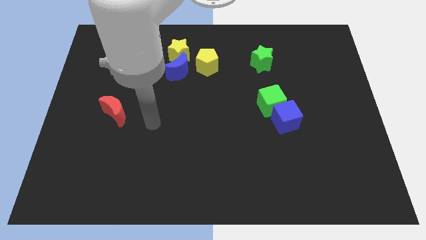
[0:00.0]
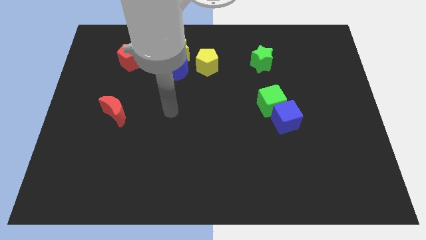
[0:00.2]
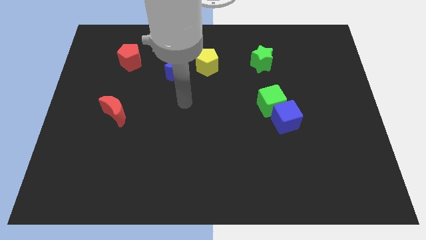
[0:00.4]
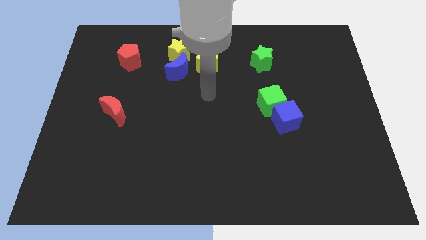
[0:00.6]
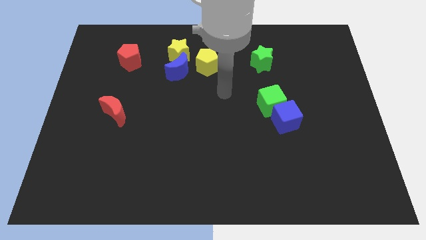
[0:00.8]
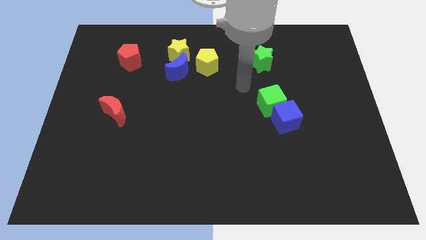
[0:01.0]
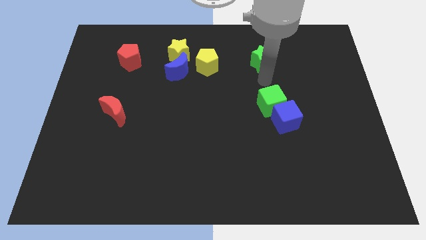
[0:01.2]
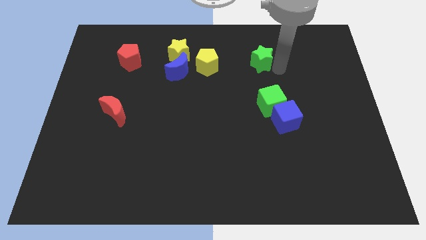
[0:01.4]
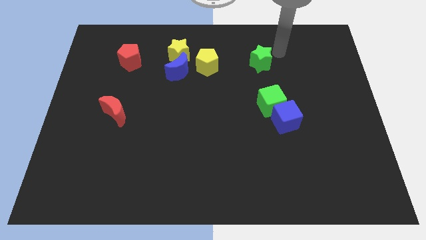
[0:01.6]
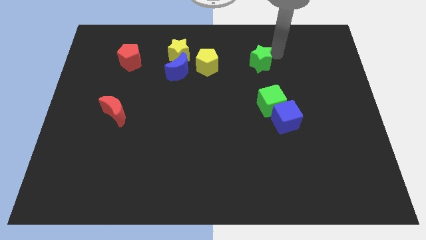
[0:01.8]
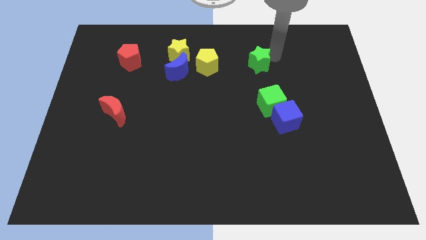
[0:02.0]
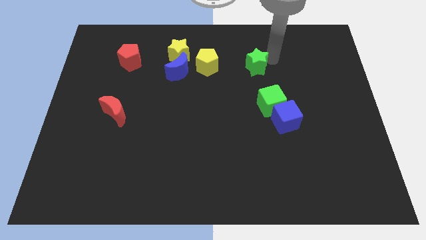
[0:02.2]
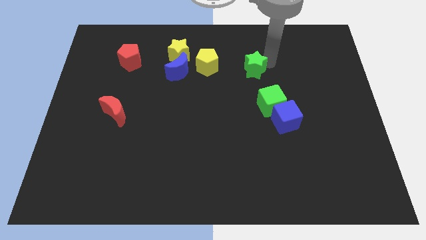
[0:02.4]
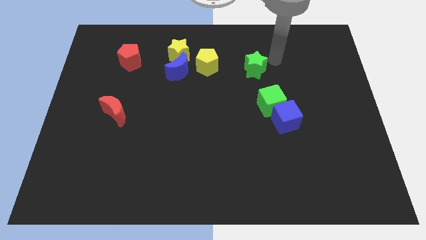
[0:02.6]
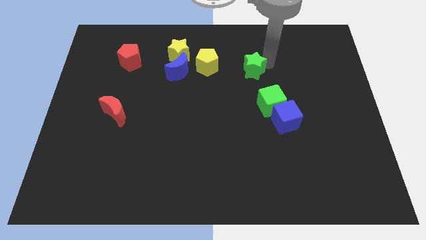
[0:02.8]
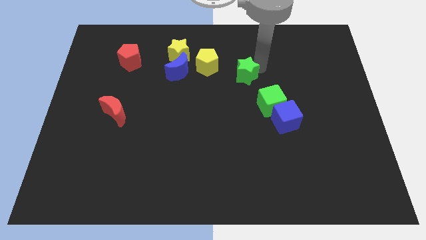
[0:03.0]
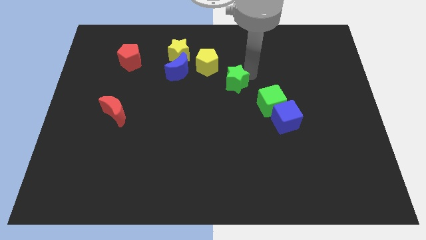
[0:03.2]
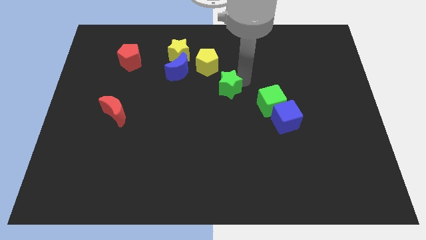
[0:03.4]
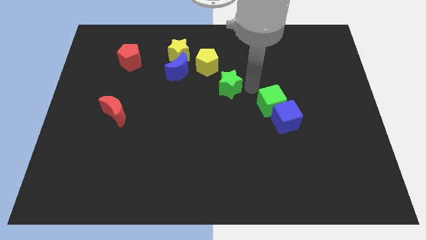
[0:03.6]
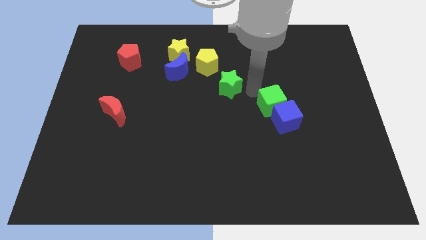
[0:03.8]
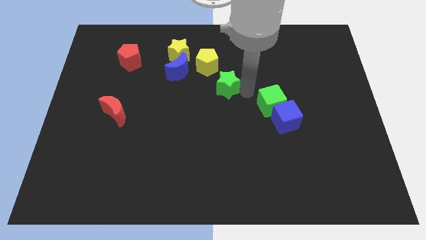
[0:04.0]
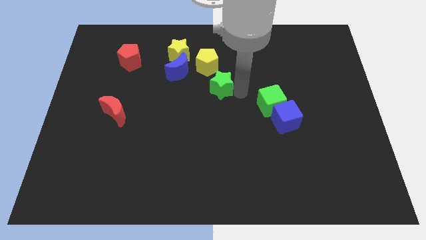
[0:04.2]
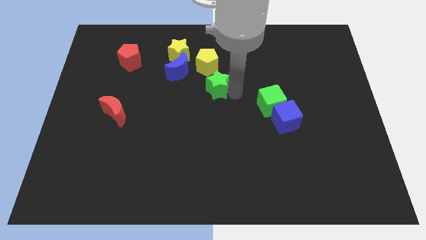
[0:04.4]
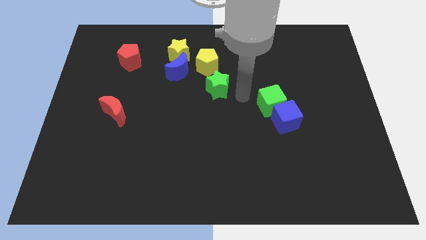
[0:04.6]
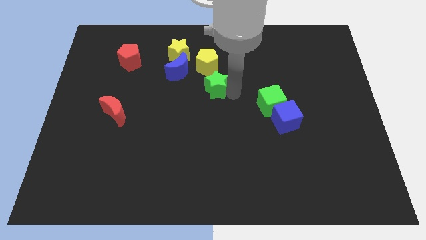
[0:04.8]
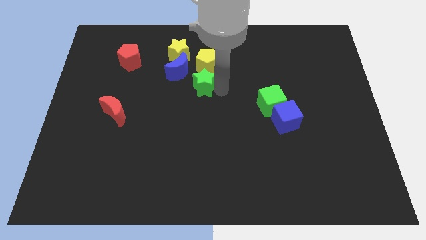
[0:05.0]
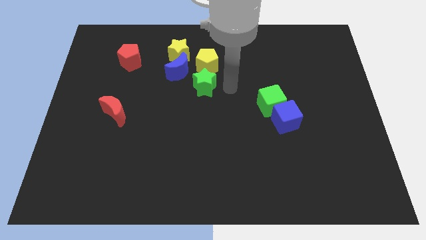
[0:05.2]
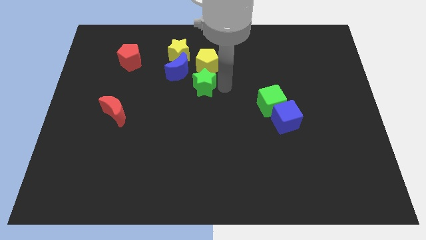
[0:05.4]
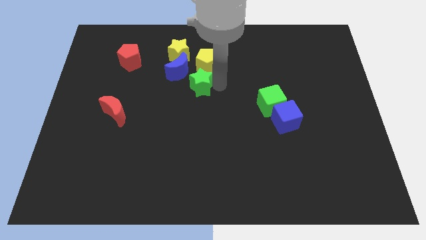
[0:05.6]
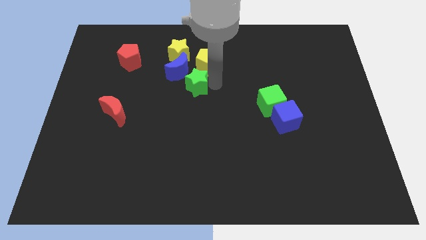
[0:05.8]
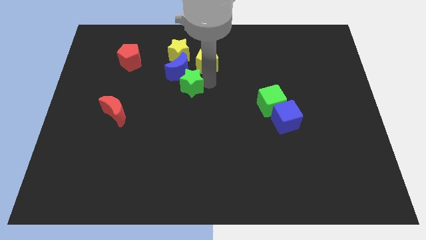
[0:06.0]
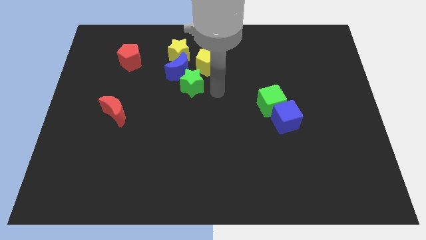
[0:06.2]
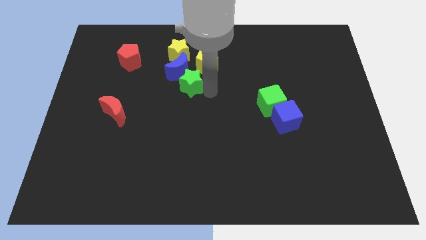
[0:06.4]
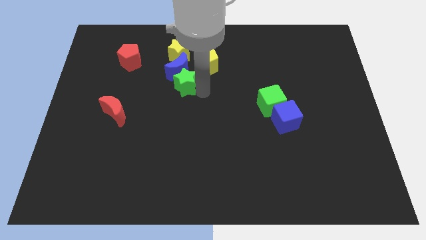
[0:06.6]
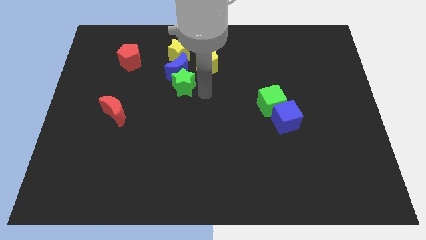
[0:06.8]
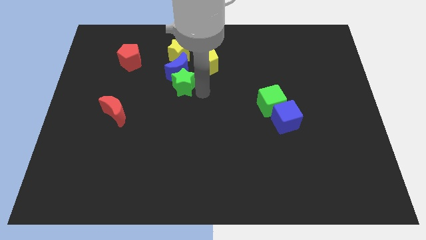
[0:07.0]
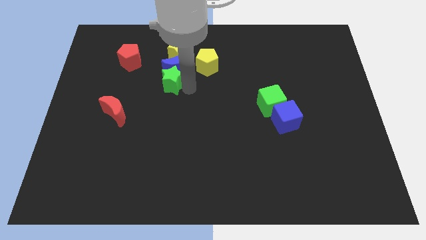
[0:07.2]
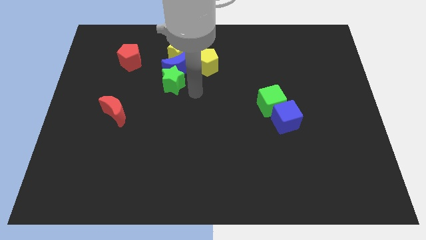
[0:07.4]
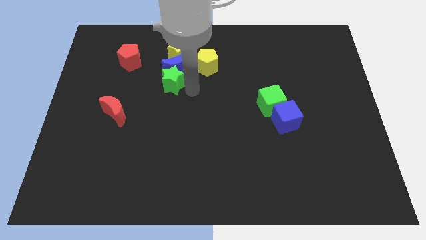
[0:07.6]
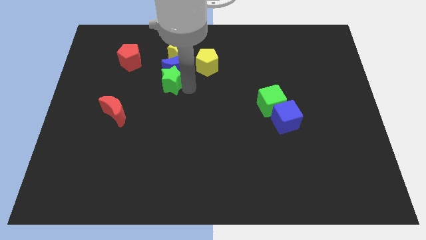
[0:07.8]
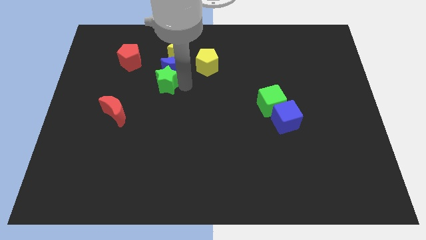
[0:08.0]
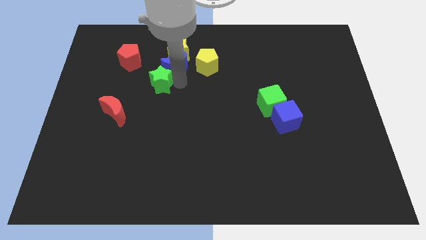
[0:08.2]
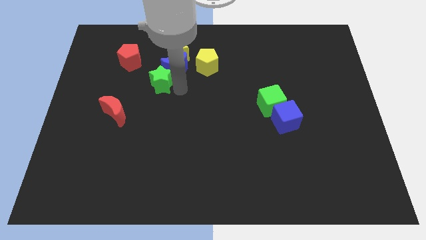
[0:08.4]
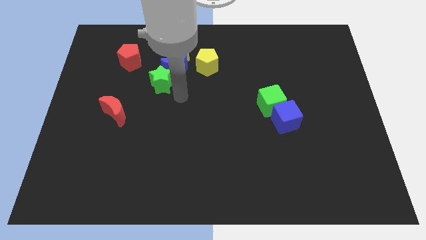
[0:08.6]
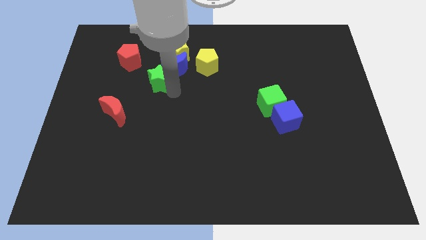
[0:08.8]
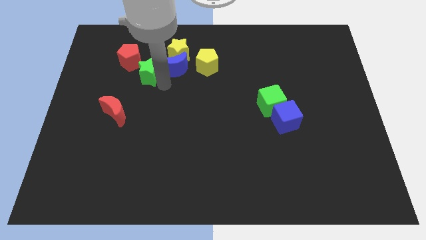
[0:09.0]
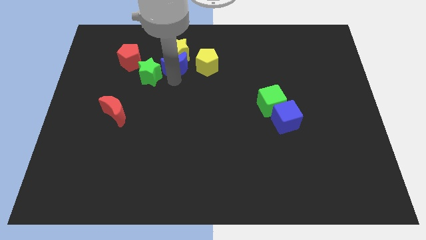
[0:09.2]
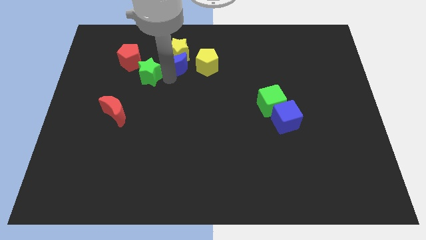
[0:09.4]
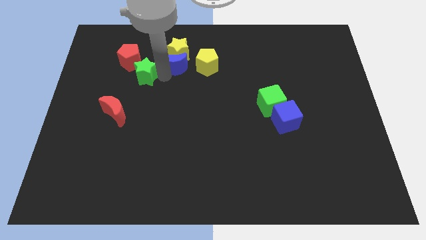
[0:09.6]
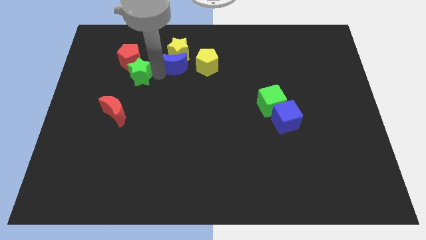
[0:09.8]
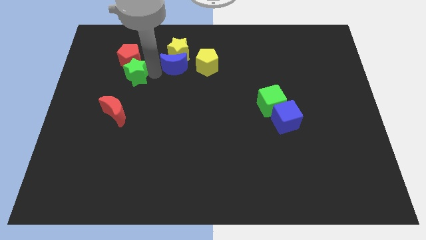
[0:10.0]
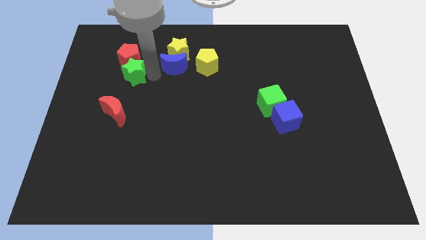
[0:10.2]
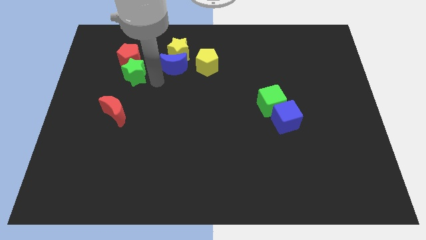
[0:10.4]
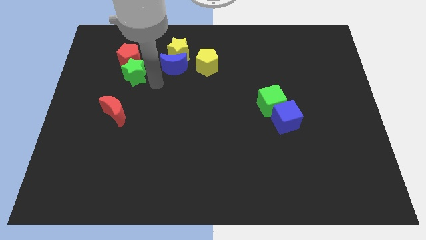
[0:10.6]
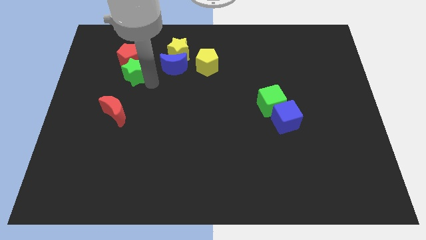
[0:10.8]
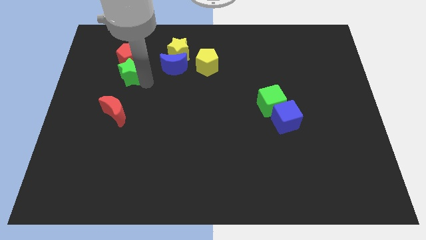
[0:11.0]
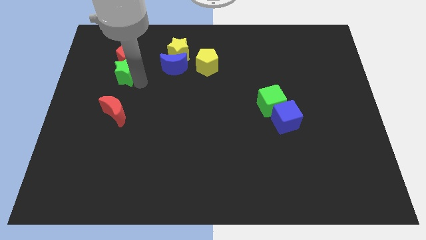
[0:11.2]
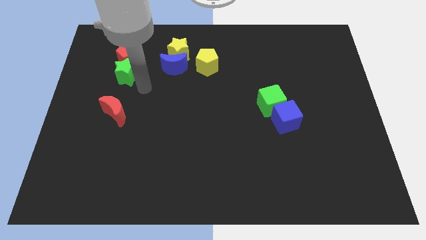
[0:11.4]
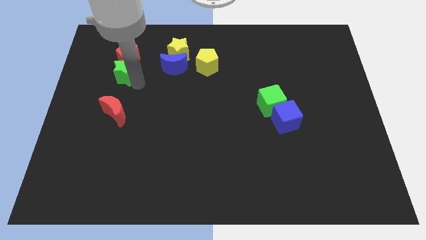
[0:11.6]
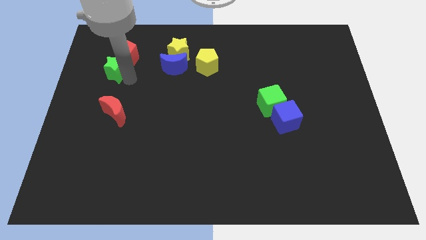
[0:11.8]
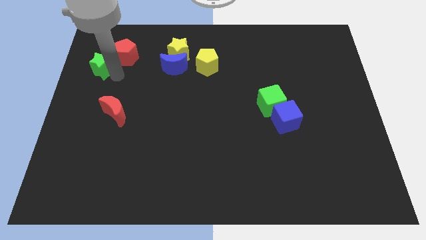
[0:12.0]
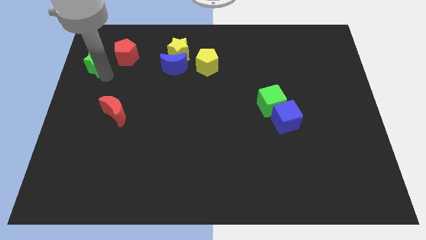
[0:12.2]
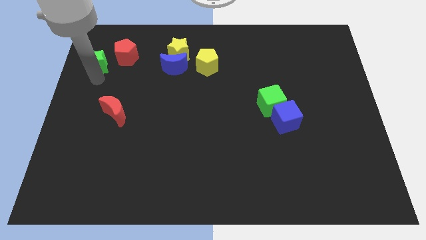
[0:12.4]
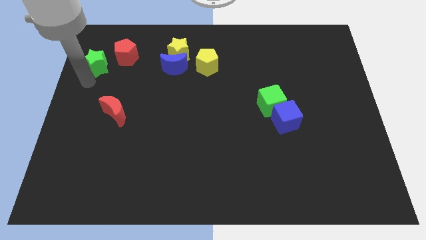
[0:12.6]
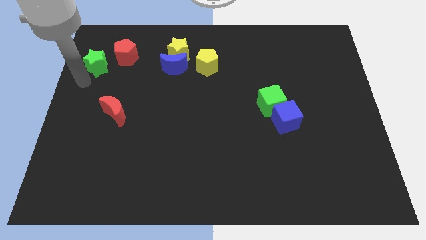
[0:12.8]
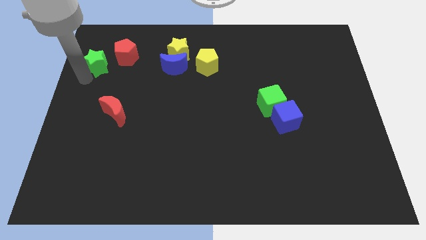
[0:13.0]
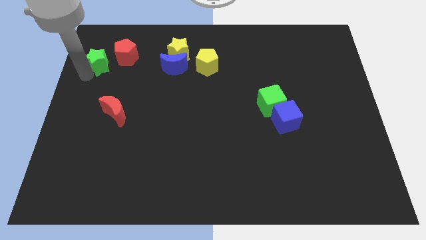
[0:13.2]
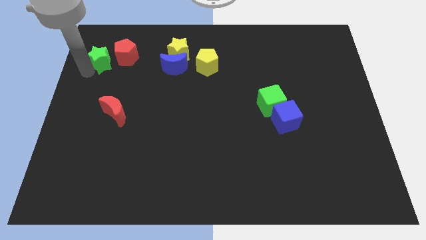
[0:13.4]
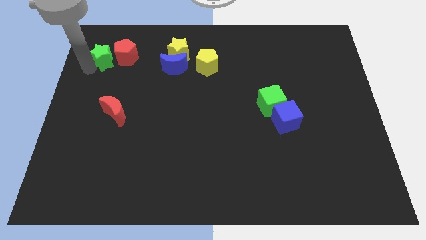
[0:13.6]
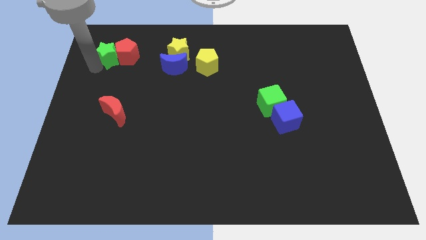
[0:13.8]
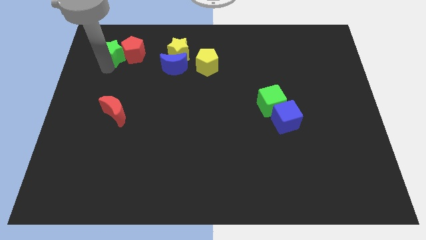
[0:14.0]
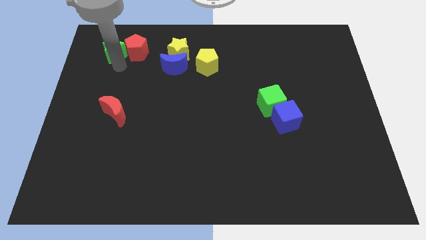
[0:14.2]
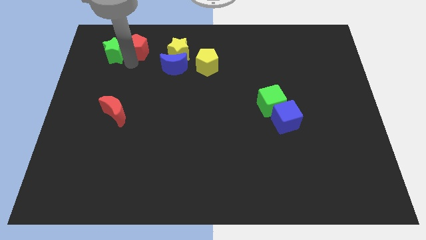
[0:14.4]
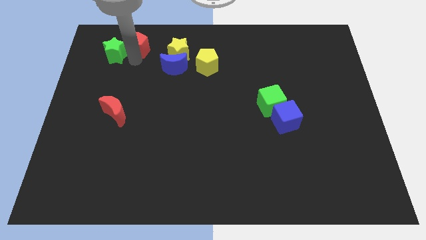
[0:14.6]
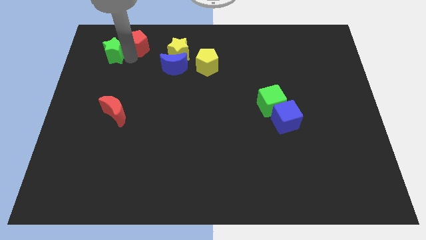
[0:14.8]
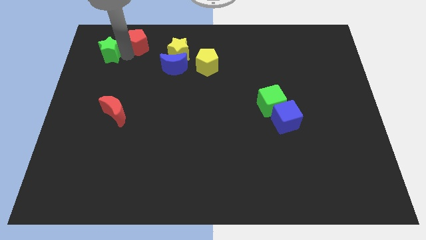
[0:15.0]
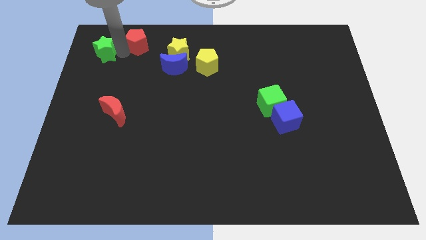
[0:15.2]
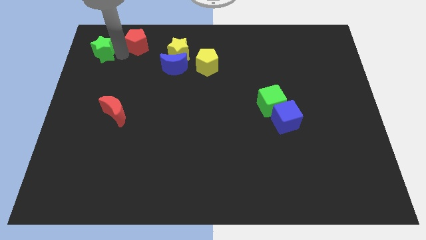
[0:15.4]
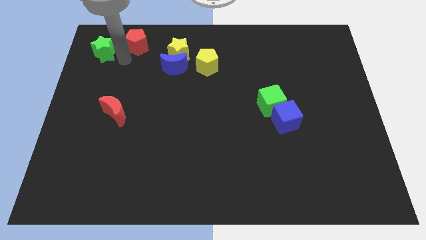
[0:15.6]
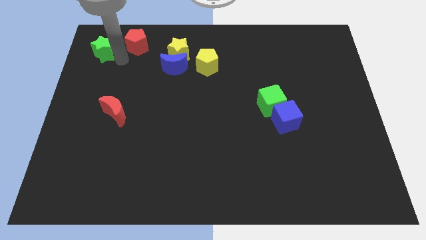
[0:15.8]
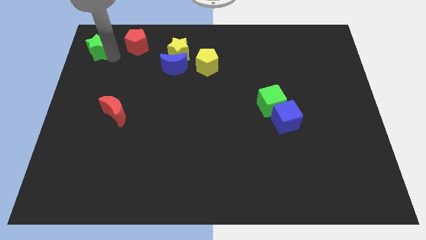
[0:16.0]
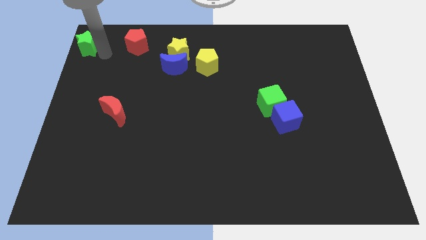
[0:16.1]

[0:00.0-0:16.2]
push the green star to the top left of the board

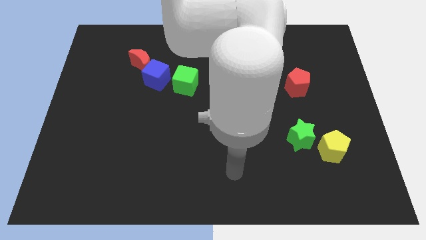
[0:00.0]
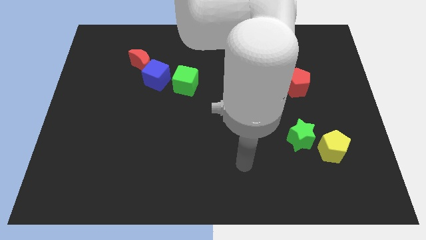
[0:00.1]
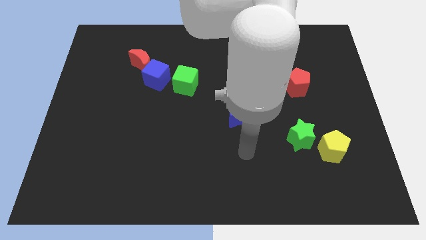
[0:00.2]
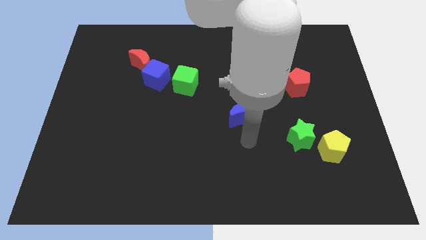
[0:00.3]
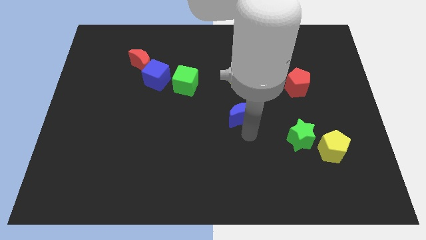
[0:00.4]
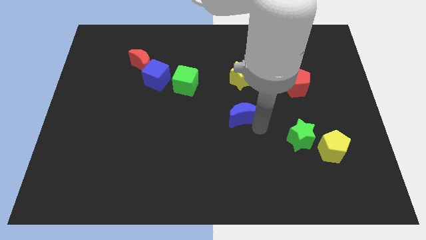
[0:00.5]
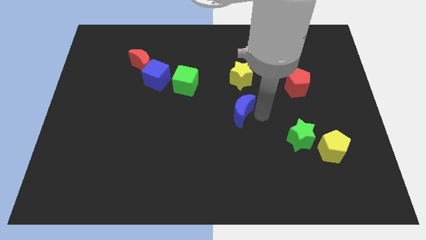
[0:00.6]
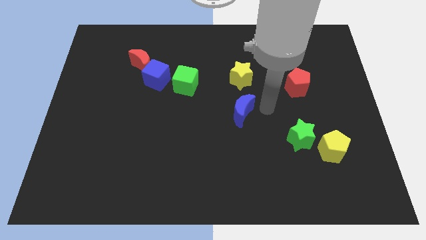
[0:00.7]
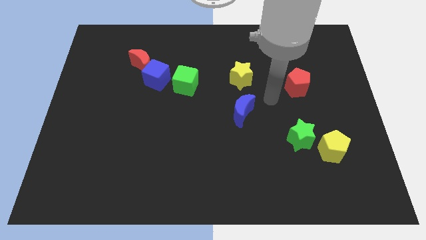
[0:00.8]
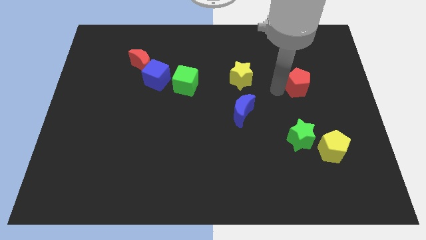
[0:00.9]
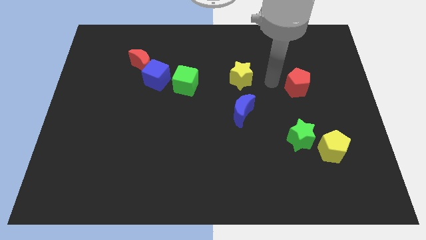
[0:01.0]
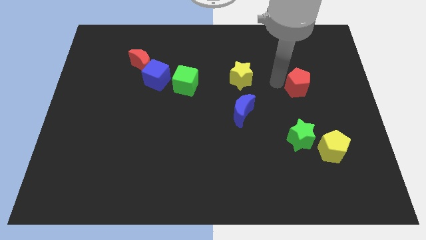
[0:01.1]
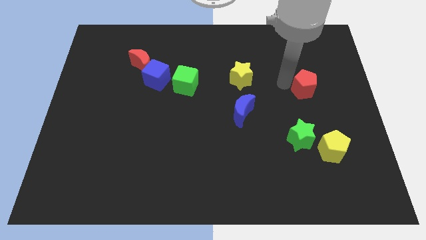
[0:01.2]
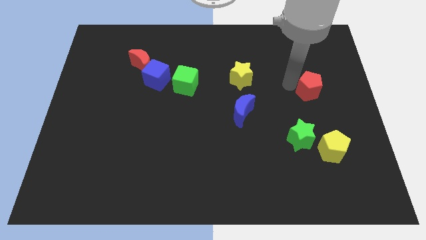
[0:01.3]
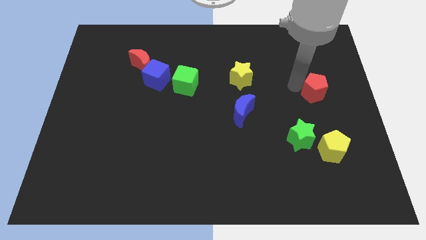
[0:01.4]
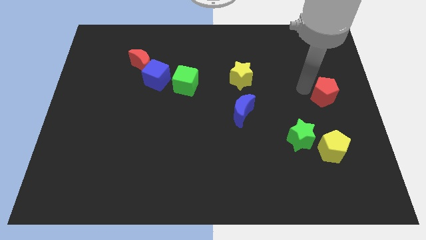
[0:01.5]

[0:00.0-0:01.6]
put the red pentagon to the right side
